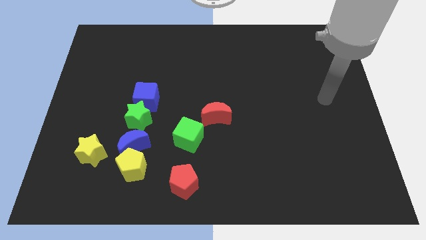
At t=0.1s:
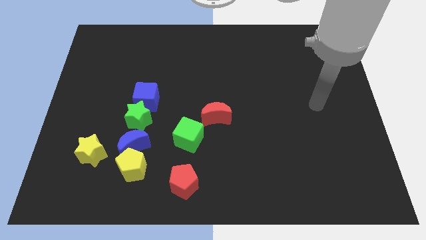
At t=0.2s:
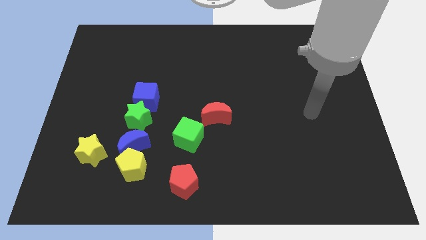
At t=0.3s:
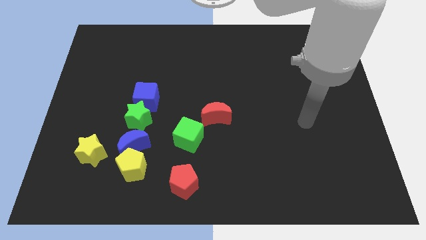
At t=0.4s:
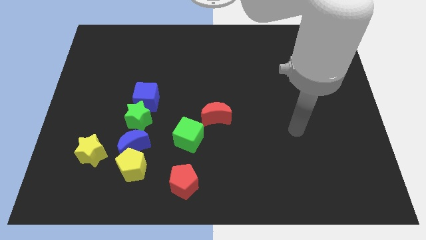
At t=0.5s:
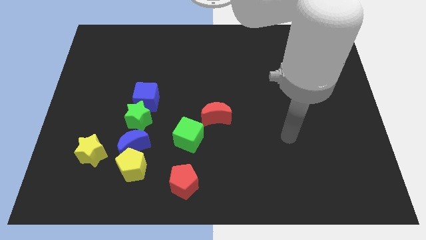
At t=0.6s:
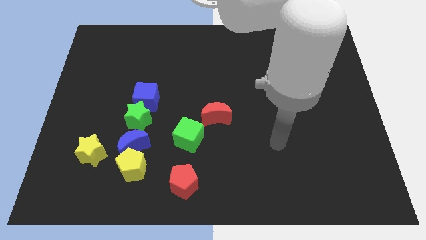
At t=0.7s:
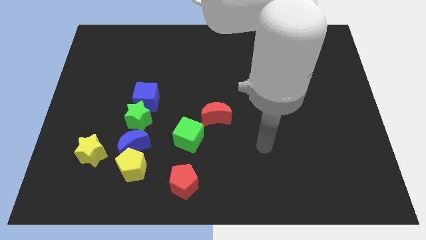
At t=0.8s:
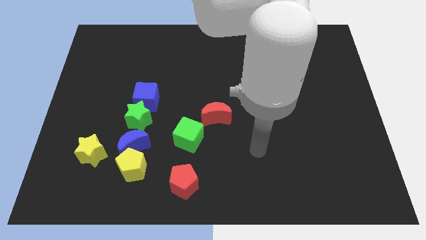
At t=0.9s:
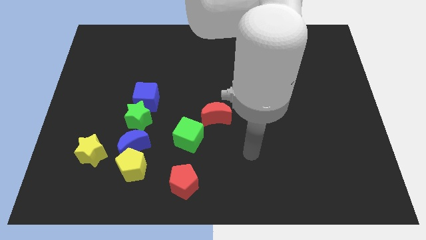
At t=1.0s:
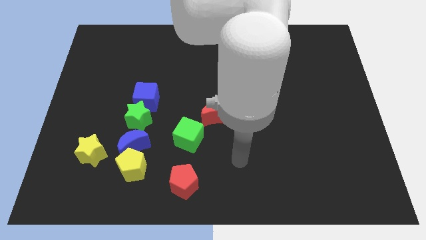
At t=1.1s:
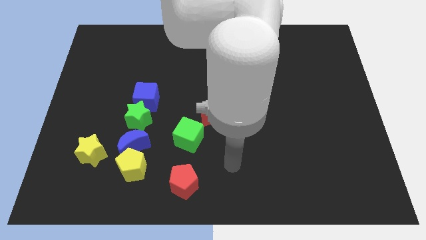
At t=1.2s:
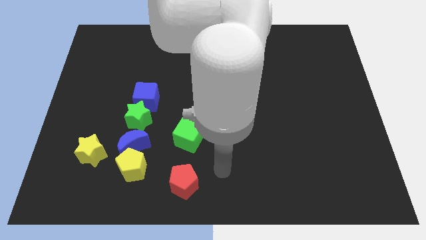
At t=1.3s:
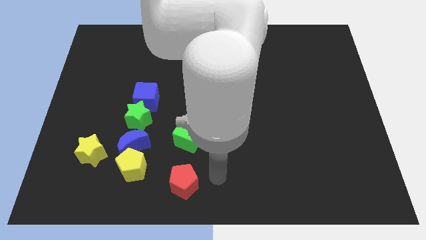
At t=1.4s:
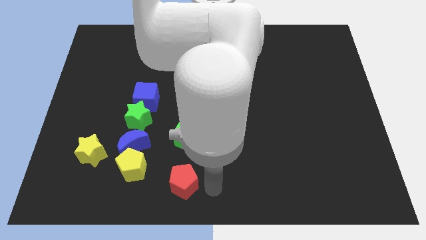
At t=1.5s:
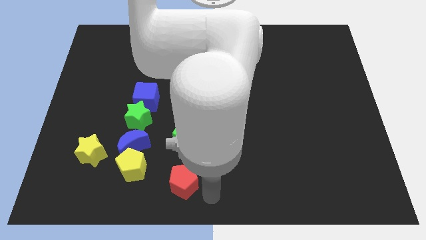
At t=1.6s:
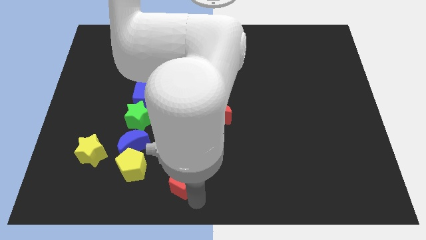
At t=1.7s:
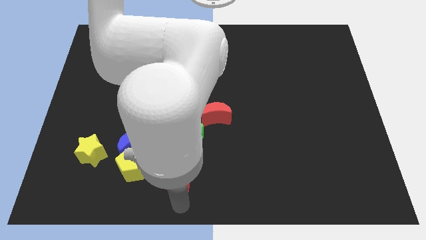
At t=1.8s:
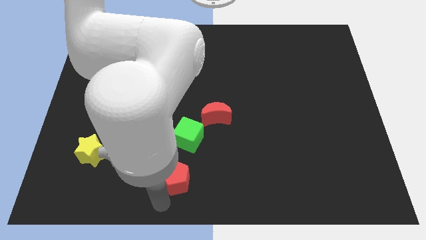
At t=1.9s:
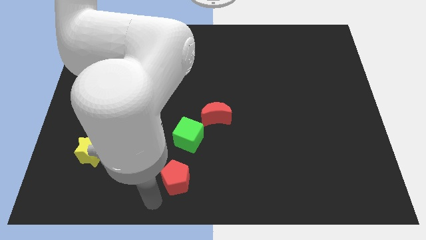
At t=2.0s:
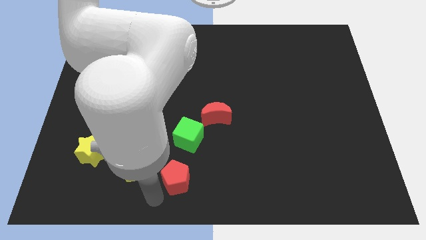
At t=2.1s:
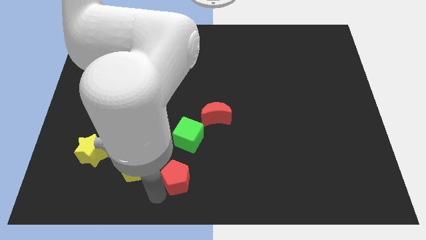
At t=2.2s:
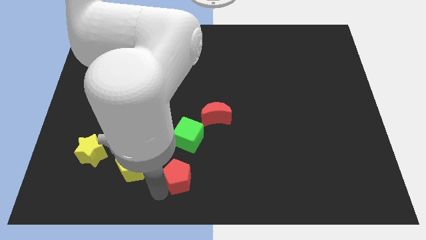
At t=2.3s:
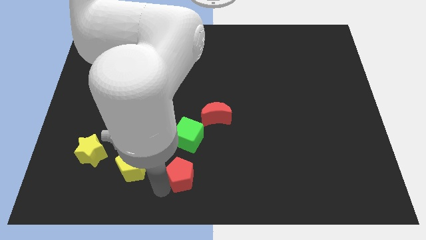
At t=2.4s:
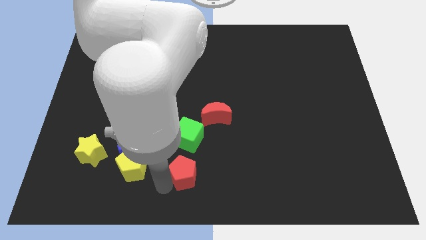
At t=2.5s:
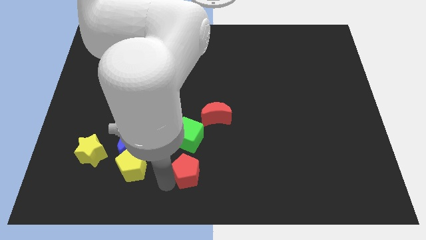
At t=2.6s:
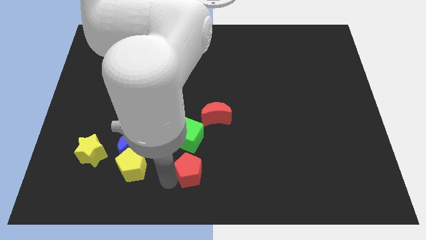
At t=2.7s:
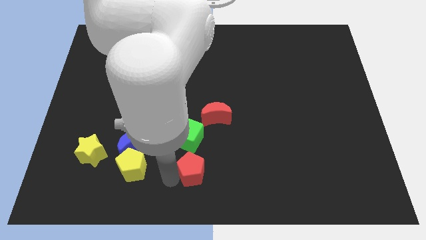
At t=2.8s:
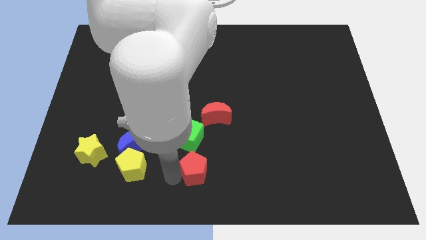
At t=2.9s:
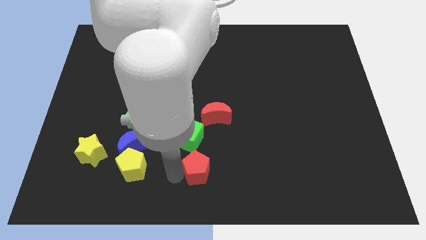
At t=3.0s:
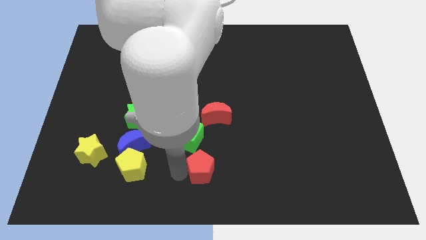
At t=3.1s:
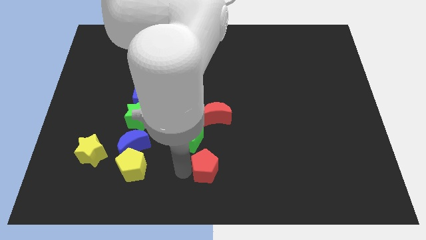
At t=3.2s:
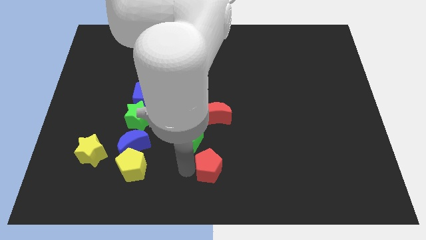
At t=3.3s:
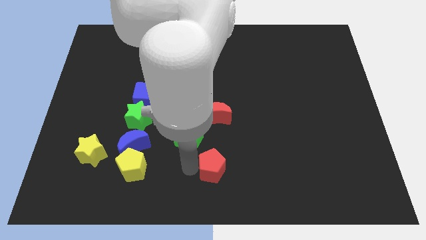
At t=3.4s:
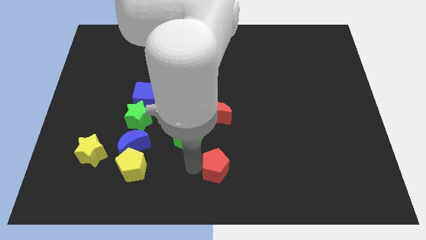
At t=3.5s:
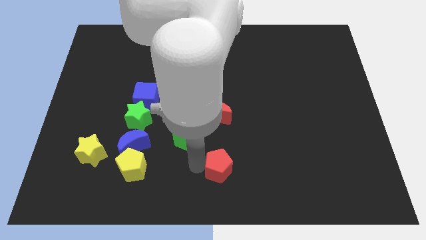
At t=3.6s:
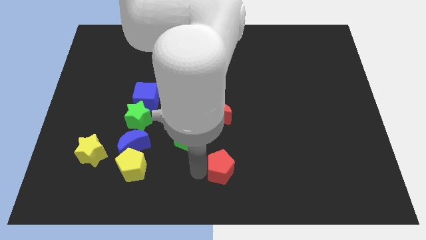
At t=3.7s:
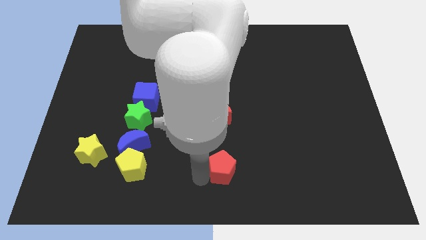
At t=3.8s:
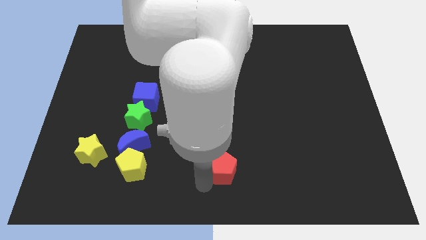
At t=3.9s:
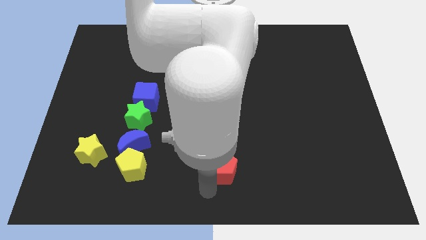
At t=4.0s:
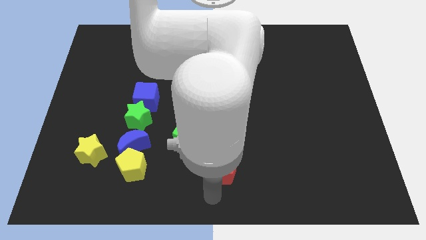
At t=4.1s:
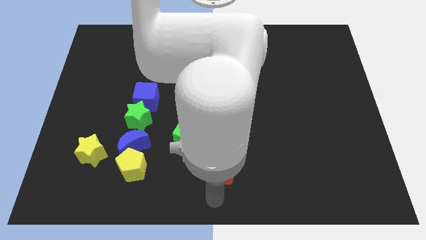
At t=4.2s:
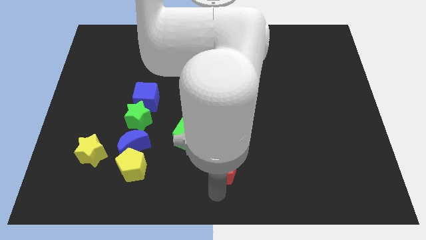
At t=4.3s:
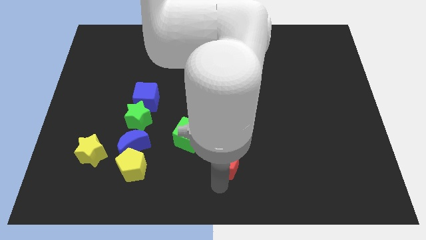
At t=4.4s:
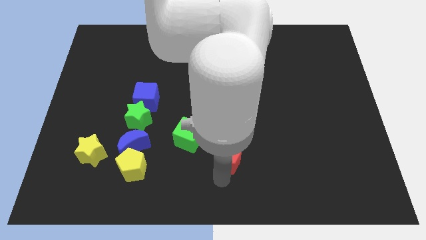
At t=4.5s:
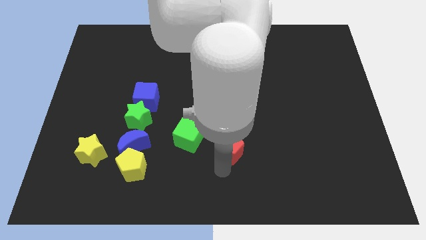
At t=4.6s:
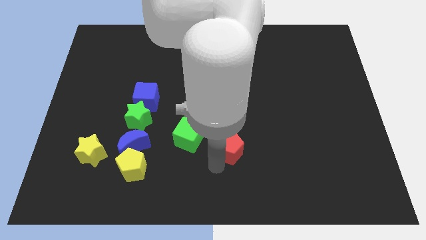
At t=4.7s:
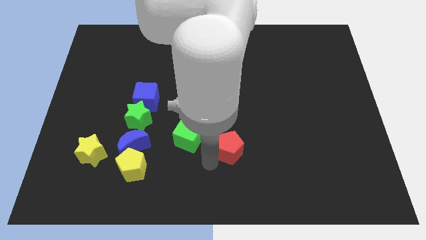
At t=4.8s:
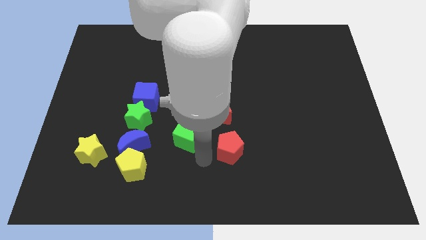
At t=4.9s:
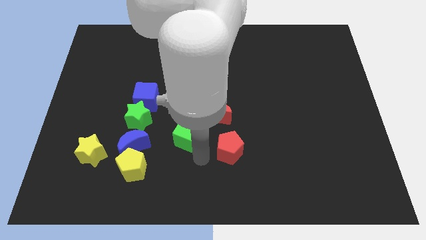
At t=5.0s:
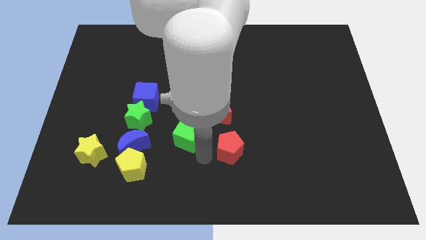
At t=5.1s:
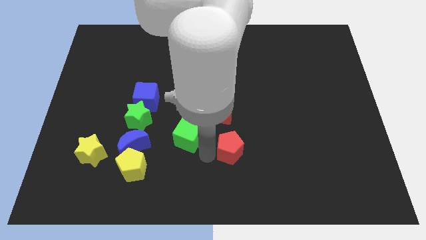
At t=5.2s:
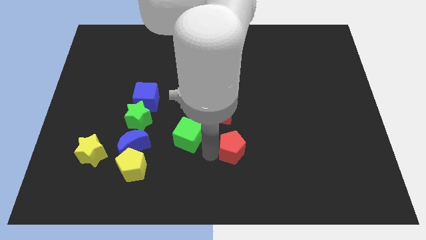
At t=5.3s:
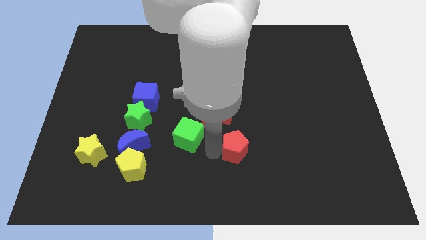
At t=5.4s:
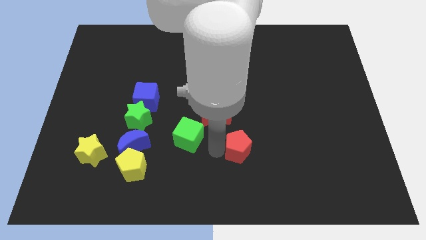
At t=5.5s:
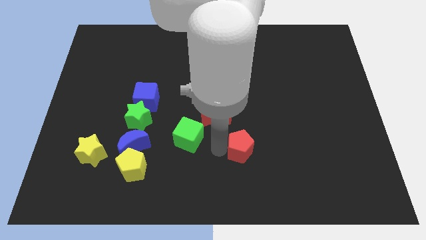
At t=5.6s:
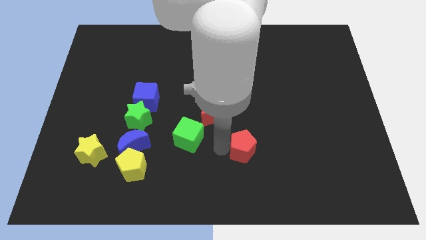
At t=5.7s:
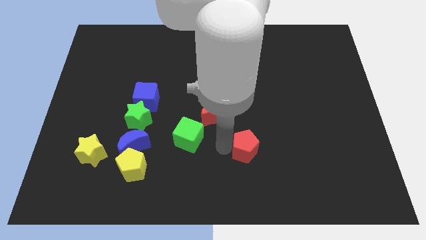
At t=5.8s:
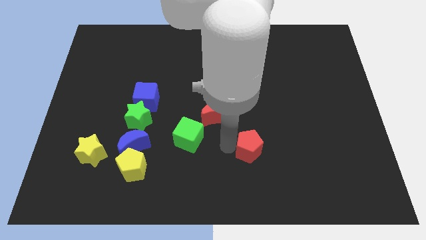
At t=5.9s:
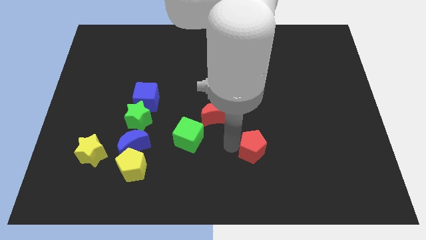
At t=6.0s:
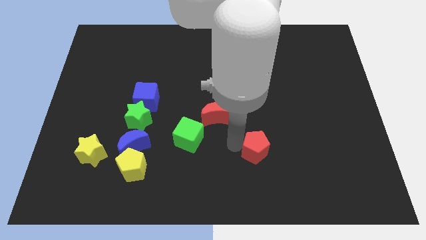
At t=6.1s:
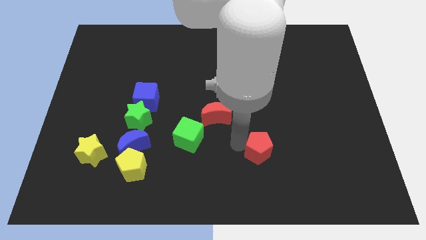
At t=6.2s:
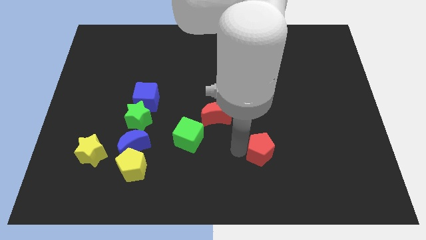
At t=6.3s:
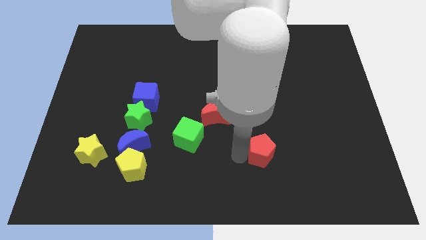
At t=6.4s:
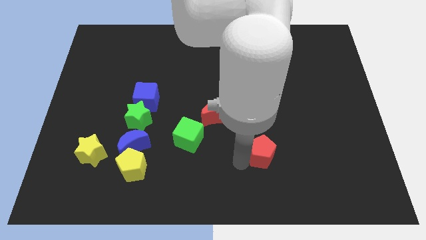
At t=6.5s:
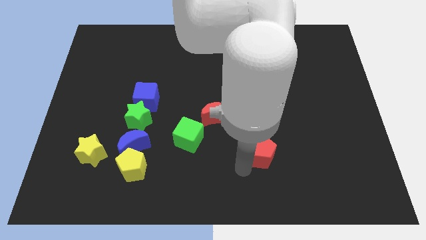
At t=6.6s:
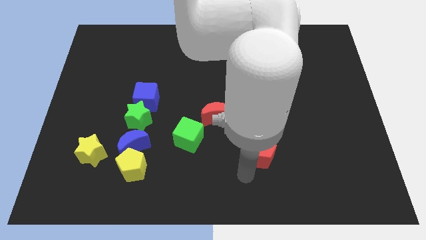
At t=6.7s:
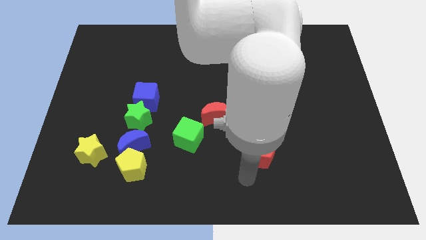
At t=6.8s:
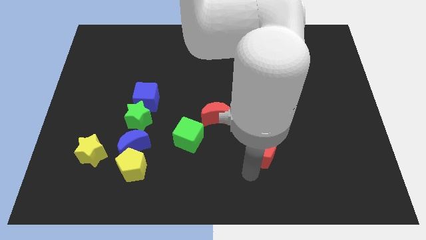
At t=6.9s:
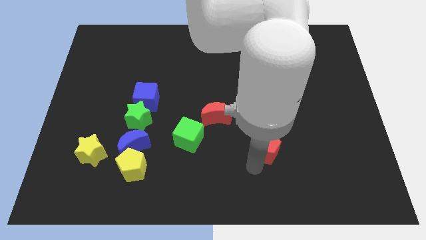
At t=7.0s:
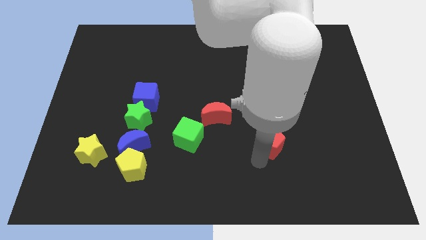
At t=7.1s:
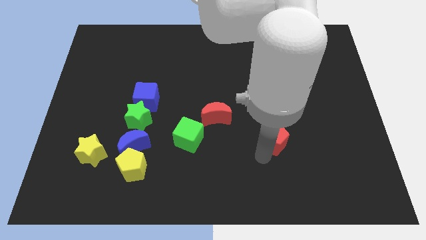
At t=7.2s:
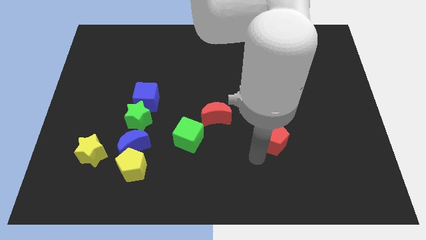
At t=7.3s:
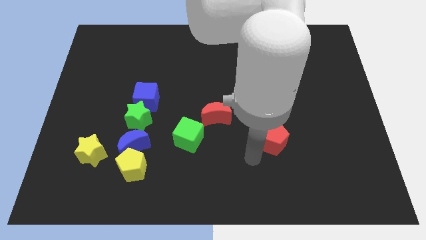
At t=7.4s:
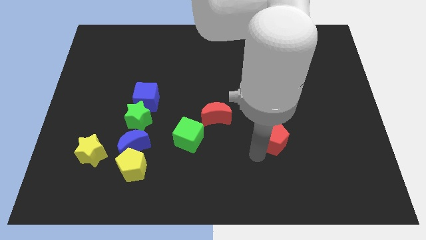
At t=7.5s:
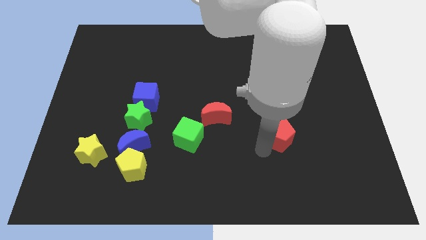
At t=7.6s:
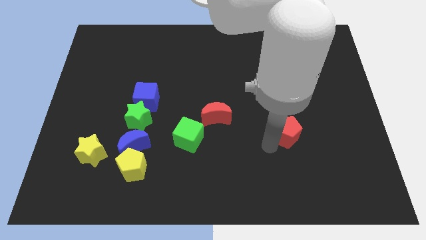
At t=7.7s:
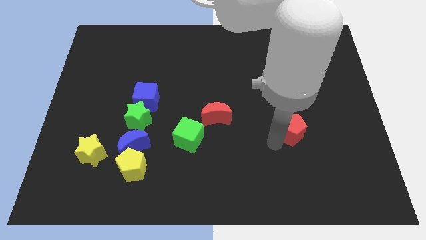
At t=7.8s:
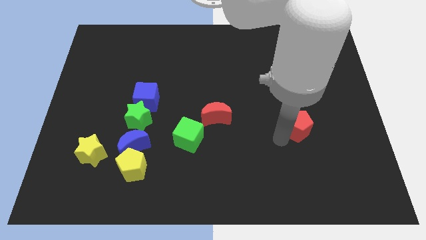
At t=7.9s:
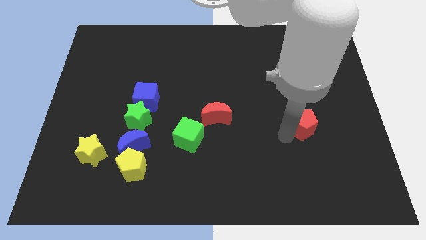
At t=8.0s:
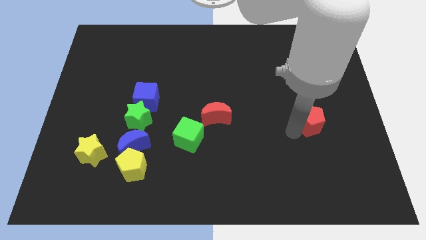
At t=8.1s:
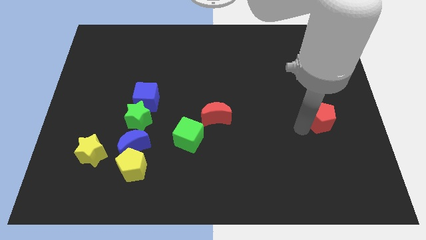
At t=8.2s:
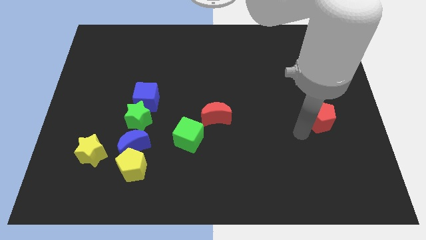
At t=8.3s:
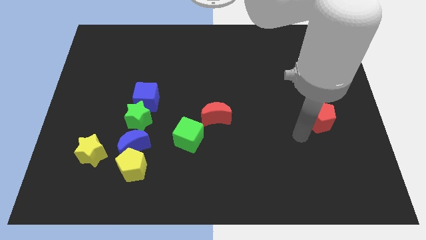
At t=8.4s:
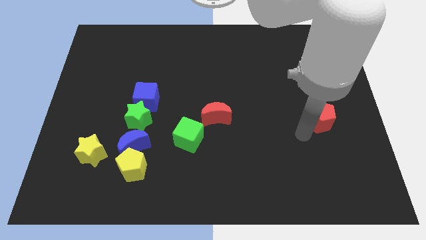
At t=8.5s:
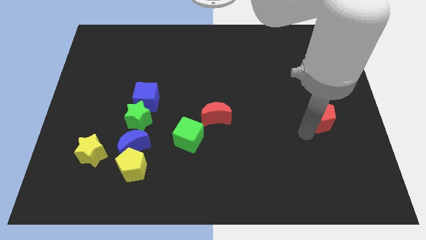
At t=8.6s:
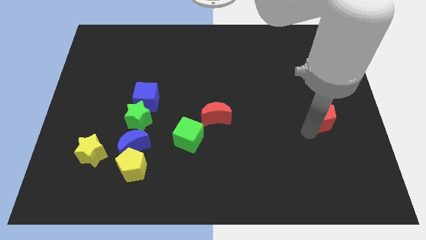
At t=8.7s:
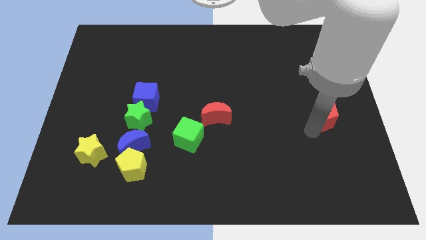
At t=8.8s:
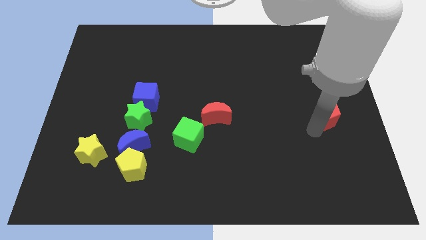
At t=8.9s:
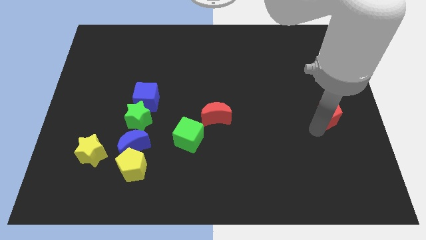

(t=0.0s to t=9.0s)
slide the red pentagon to the right side
